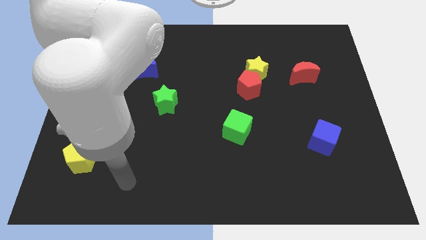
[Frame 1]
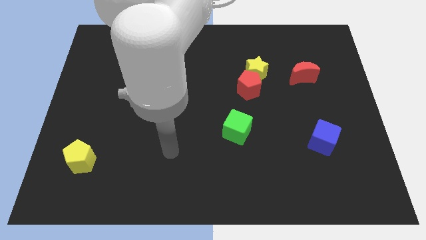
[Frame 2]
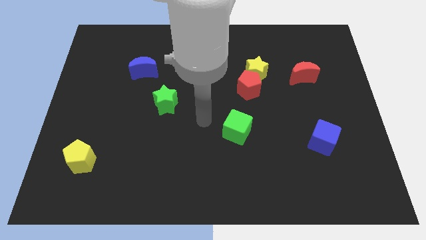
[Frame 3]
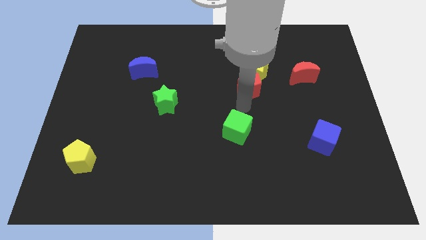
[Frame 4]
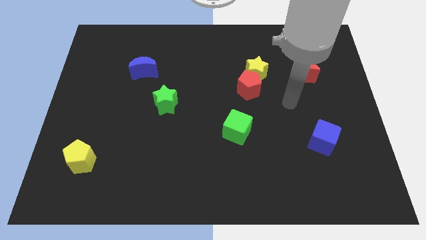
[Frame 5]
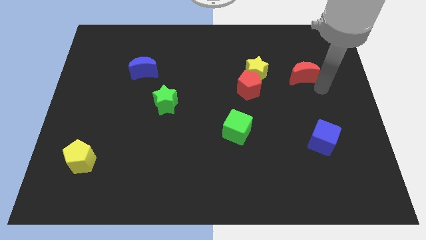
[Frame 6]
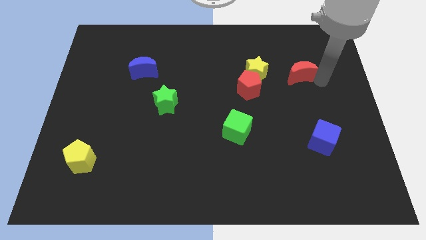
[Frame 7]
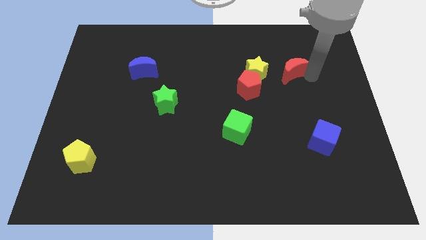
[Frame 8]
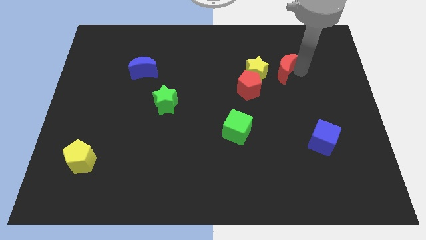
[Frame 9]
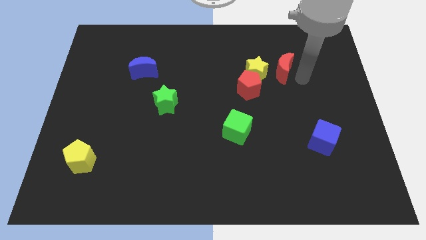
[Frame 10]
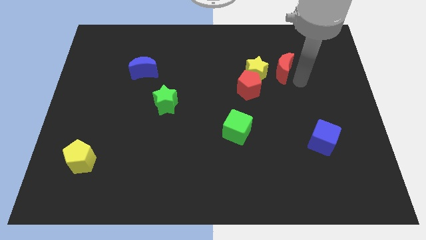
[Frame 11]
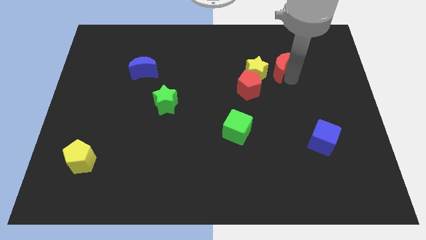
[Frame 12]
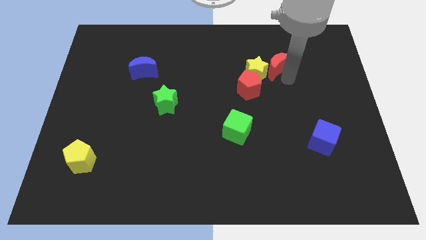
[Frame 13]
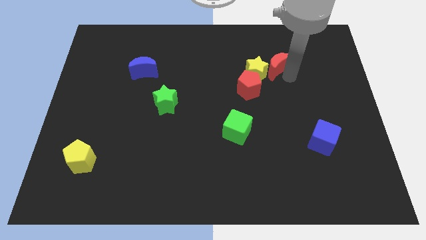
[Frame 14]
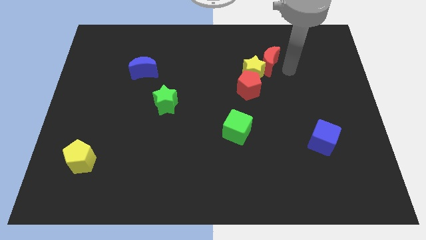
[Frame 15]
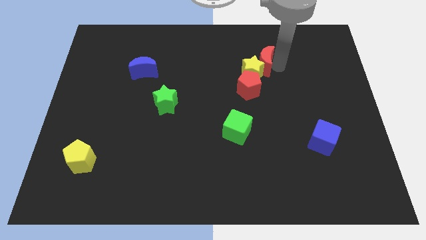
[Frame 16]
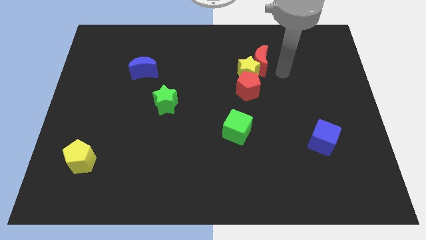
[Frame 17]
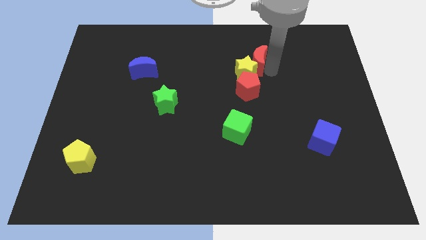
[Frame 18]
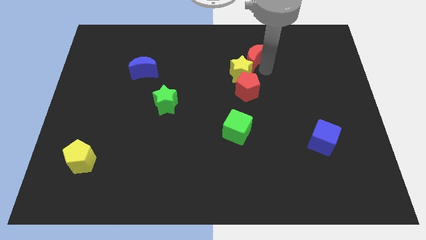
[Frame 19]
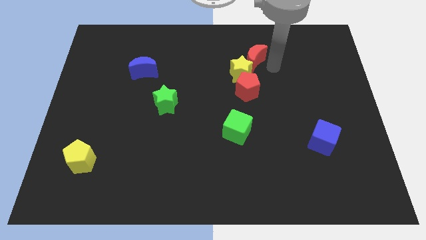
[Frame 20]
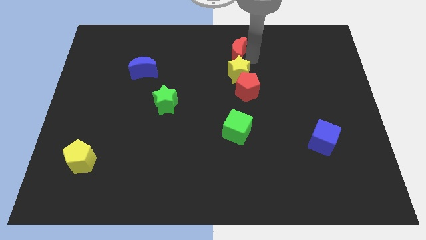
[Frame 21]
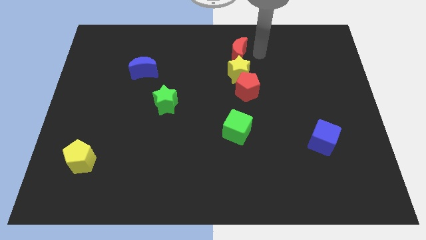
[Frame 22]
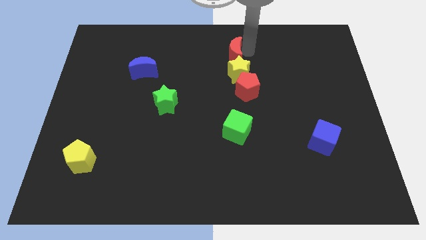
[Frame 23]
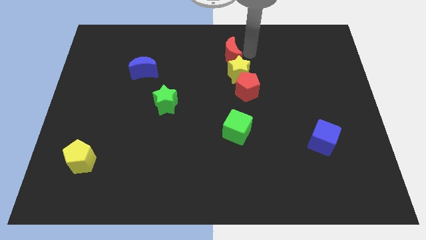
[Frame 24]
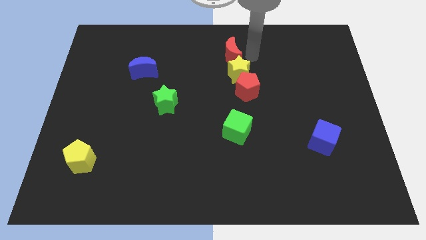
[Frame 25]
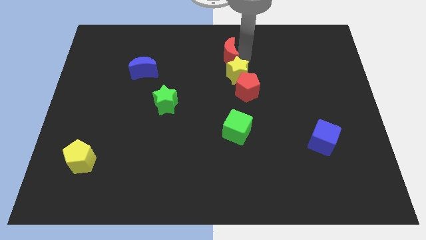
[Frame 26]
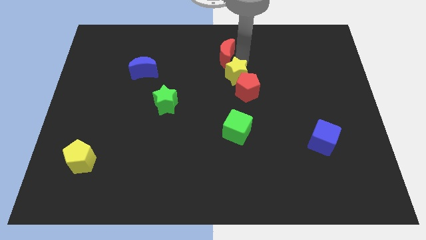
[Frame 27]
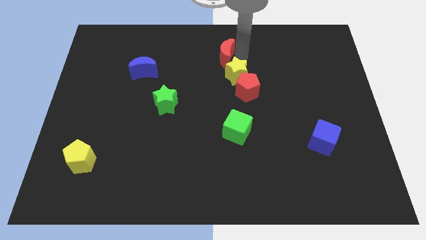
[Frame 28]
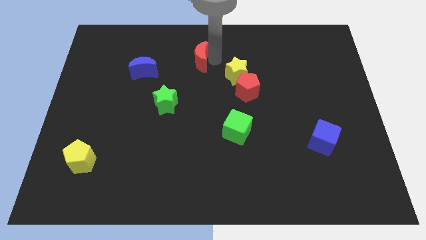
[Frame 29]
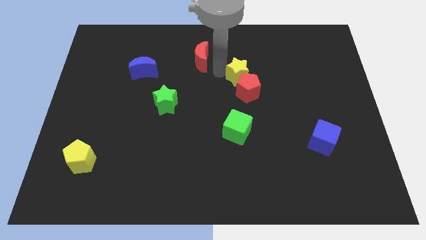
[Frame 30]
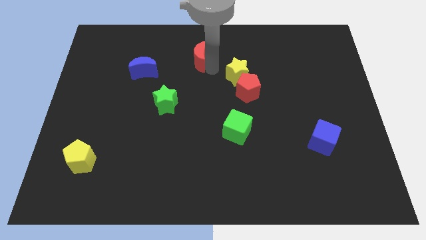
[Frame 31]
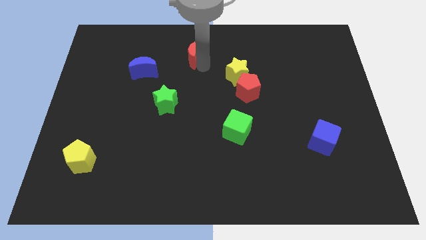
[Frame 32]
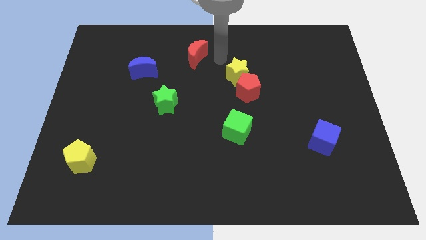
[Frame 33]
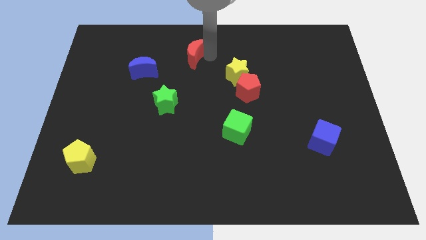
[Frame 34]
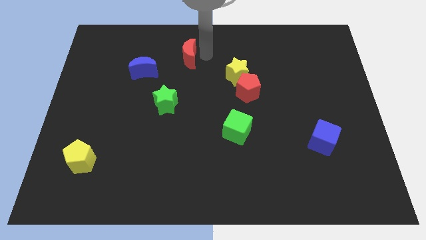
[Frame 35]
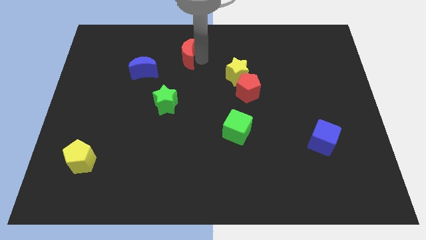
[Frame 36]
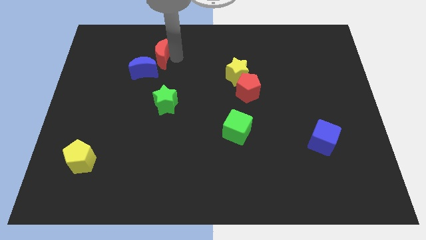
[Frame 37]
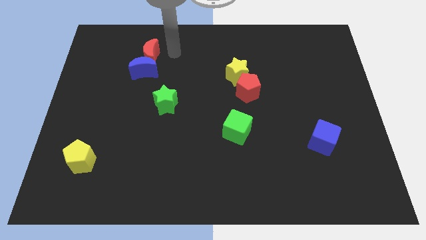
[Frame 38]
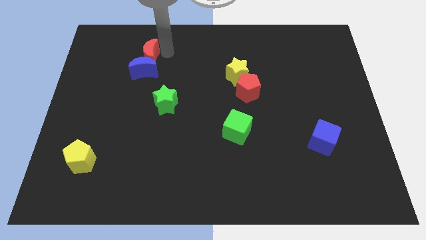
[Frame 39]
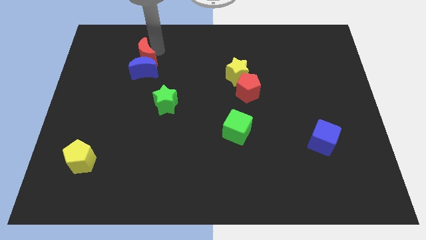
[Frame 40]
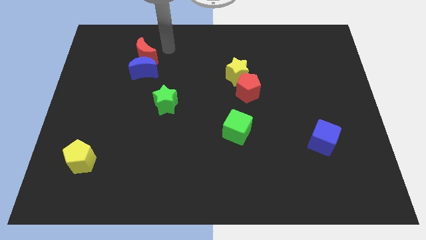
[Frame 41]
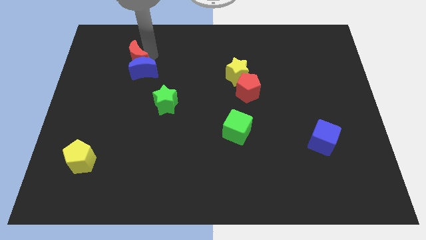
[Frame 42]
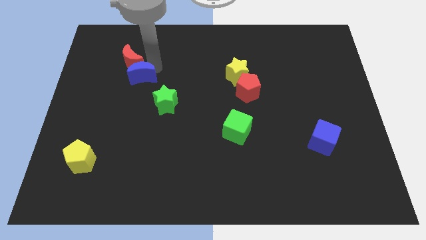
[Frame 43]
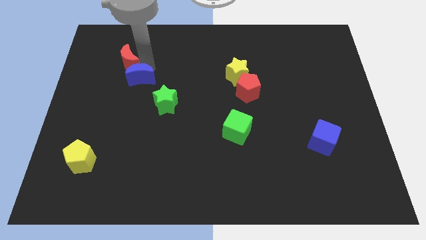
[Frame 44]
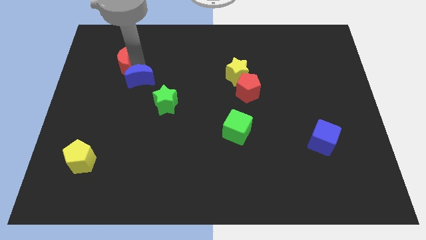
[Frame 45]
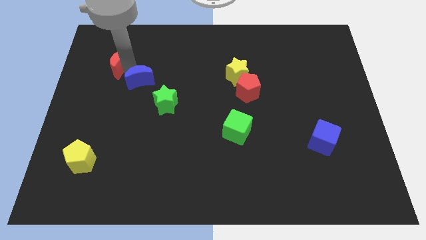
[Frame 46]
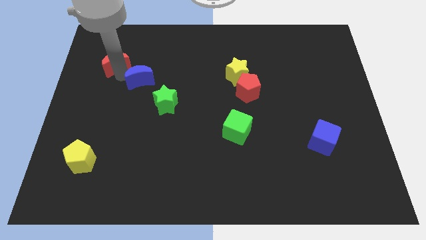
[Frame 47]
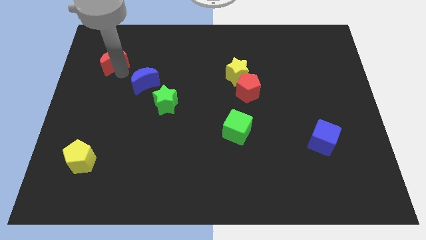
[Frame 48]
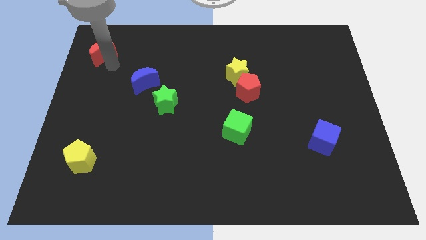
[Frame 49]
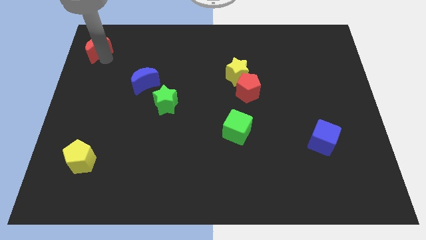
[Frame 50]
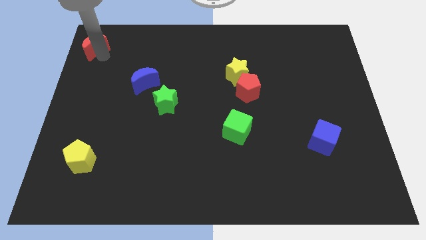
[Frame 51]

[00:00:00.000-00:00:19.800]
slide the red moon to the upper left corner

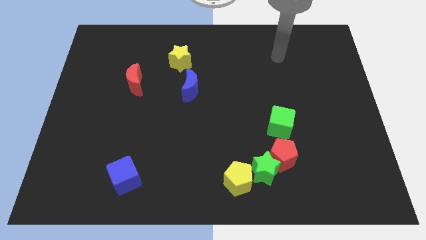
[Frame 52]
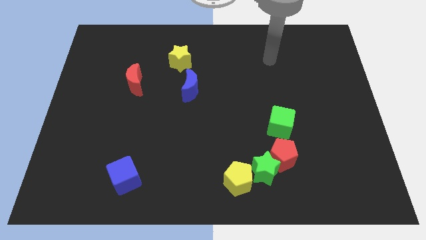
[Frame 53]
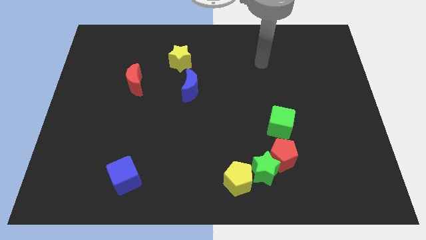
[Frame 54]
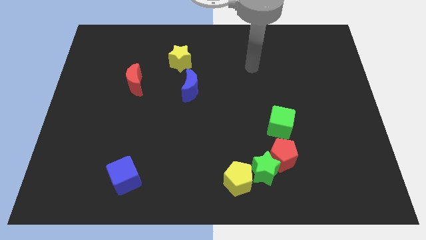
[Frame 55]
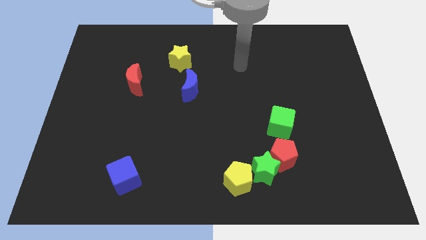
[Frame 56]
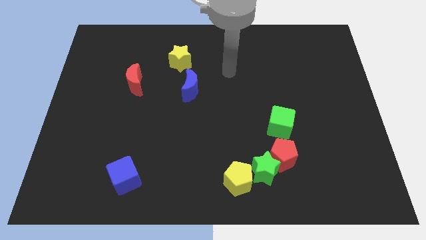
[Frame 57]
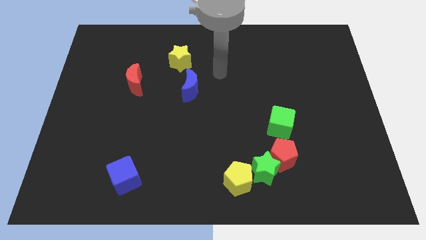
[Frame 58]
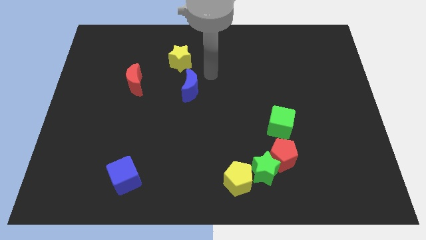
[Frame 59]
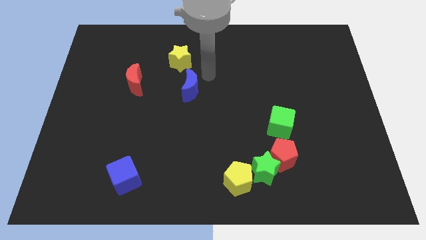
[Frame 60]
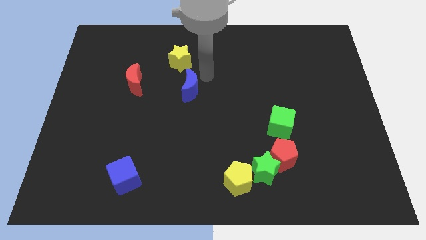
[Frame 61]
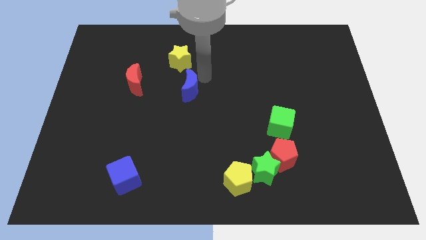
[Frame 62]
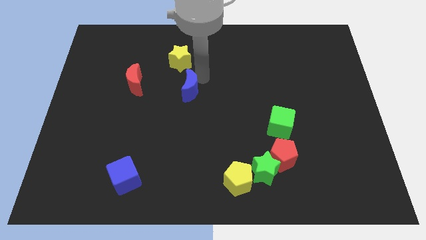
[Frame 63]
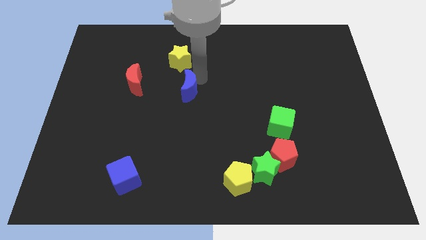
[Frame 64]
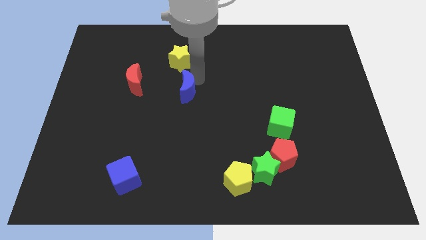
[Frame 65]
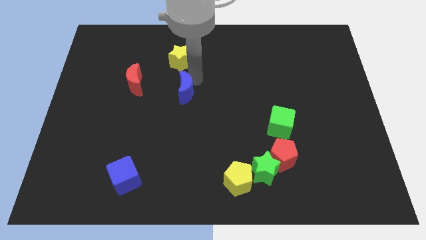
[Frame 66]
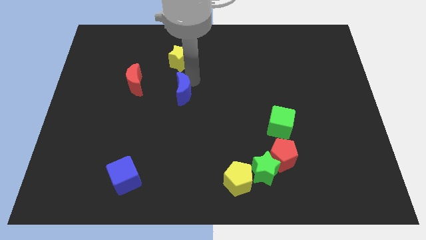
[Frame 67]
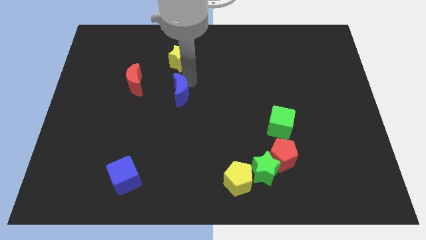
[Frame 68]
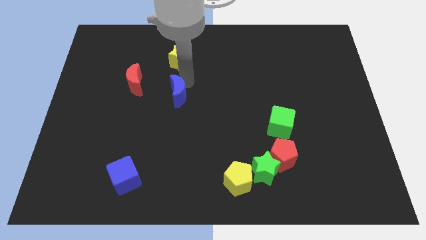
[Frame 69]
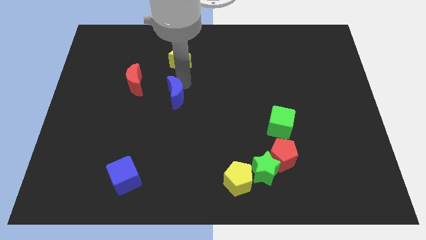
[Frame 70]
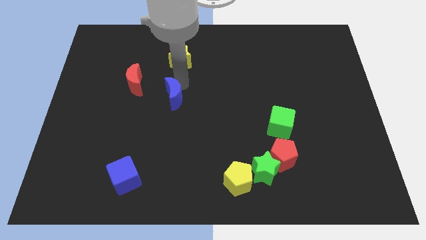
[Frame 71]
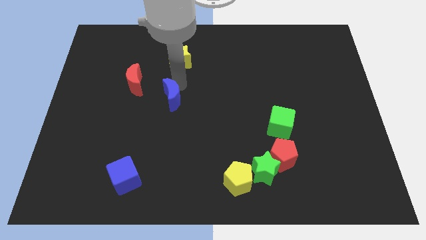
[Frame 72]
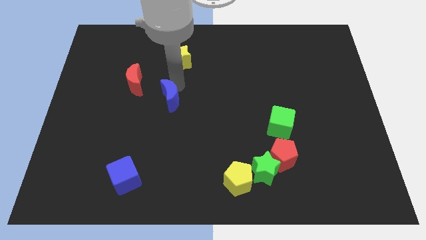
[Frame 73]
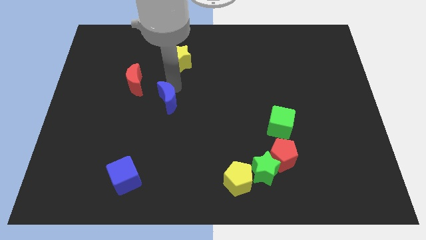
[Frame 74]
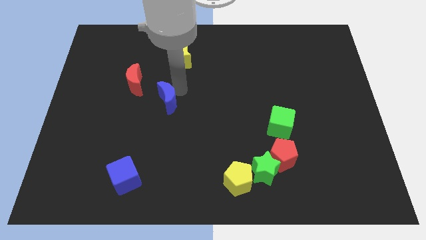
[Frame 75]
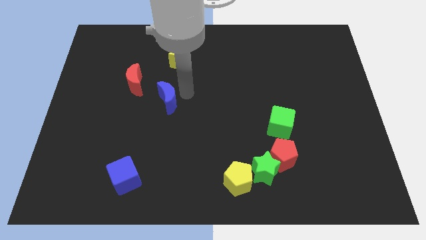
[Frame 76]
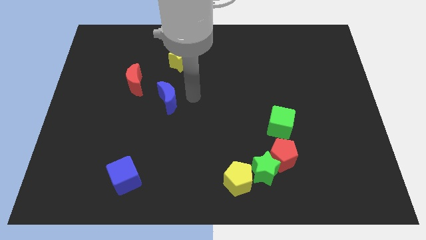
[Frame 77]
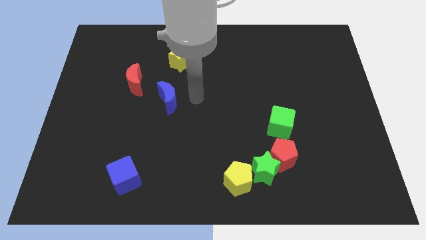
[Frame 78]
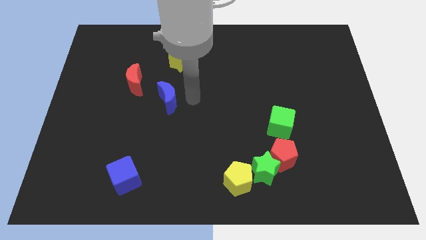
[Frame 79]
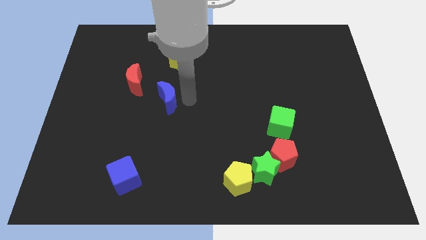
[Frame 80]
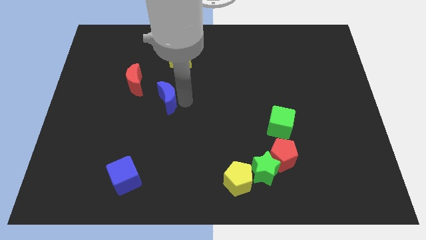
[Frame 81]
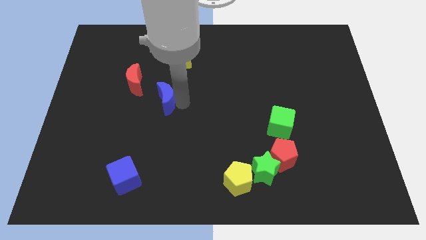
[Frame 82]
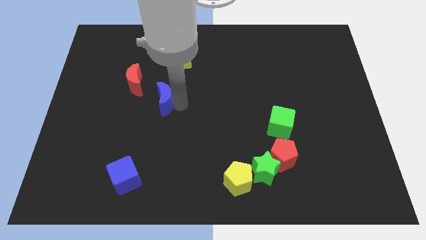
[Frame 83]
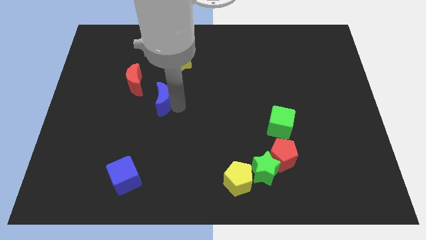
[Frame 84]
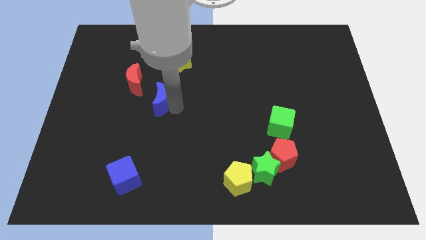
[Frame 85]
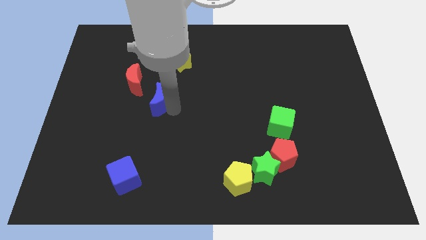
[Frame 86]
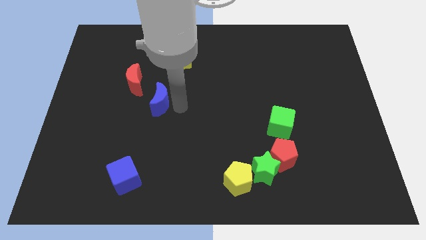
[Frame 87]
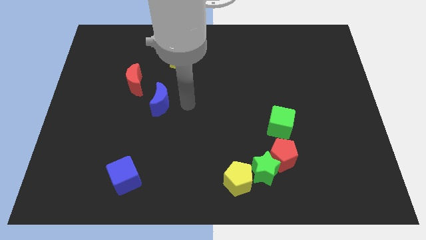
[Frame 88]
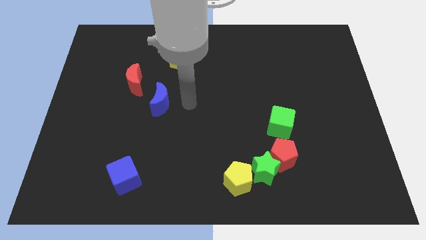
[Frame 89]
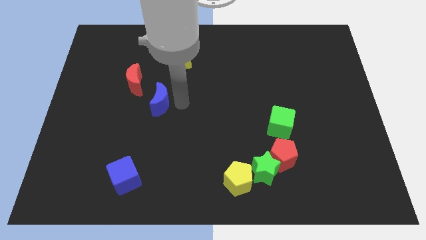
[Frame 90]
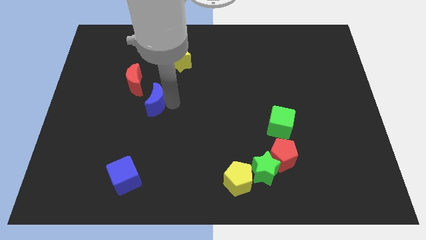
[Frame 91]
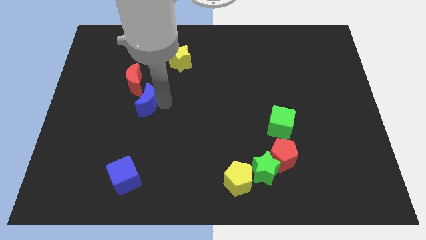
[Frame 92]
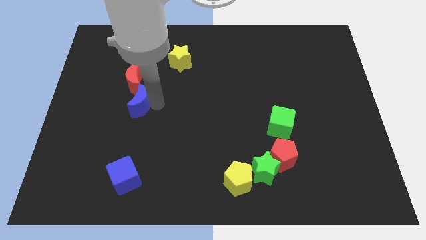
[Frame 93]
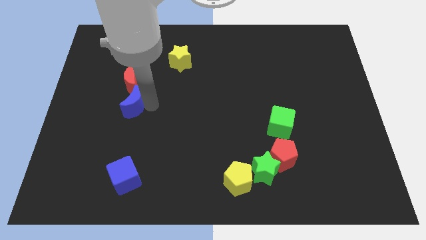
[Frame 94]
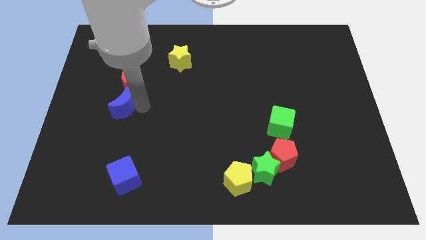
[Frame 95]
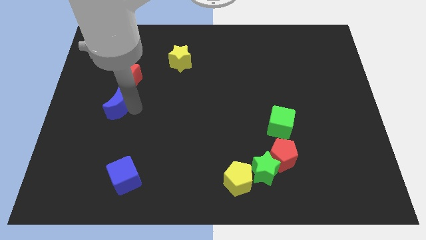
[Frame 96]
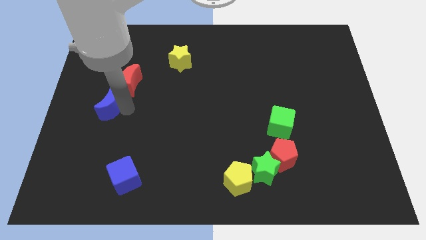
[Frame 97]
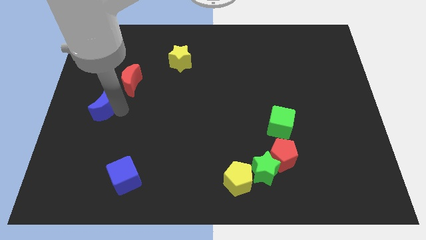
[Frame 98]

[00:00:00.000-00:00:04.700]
push the blue moon to the center left
